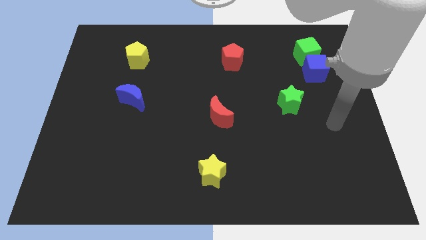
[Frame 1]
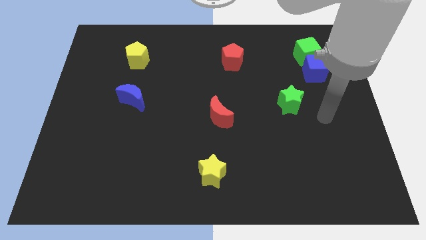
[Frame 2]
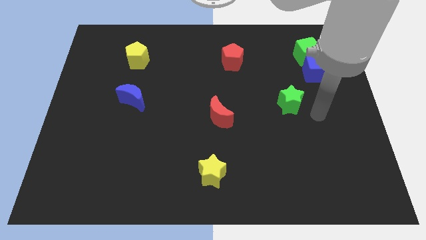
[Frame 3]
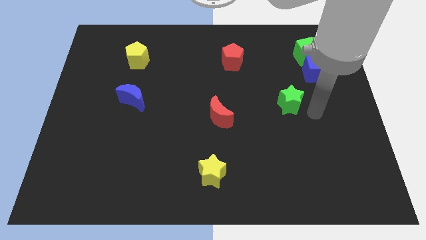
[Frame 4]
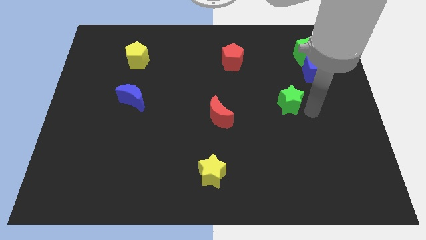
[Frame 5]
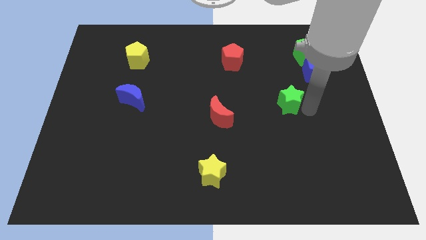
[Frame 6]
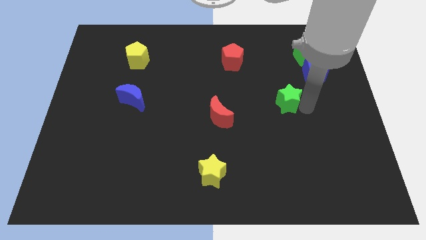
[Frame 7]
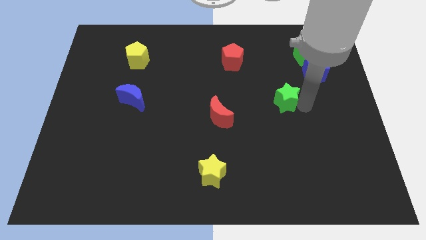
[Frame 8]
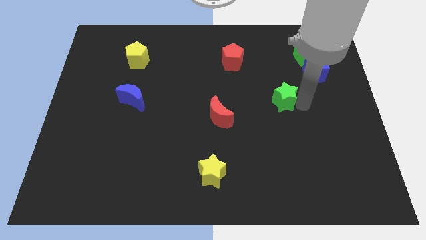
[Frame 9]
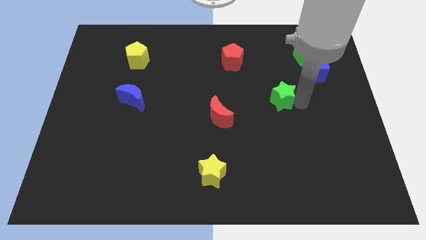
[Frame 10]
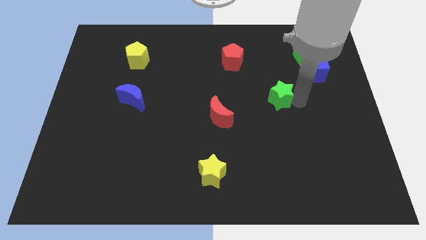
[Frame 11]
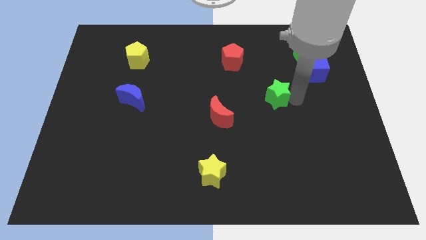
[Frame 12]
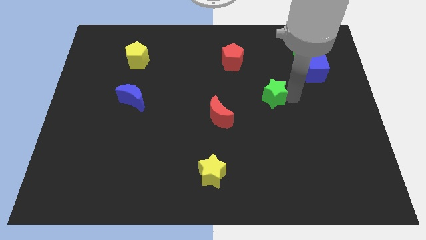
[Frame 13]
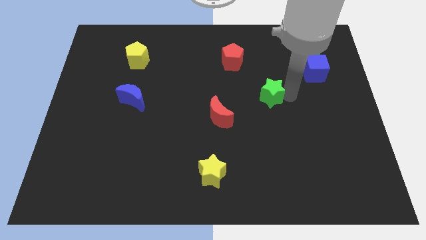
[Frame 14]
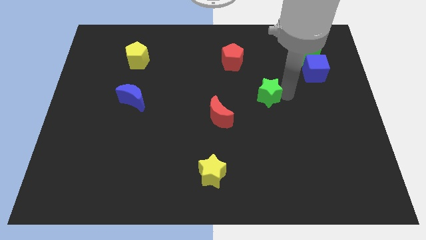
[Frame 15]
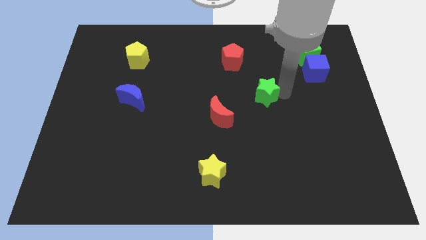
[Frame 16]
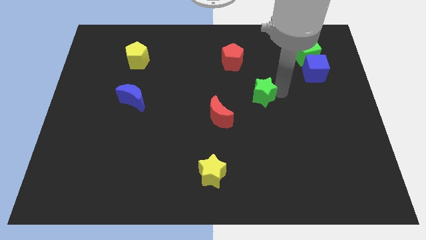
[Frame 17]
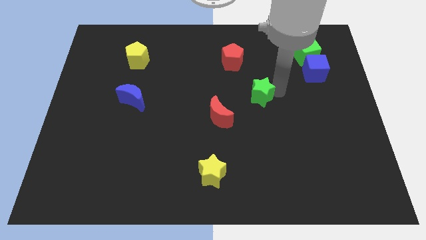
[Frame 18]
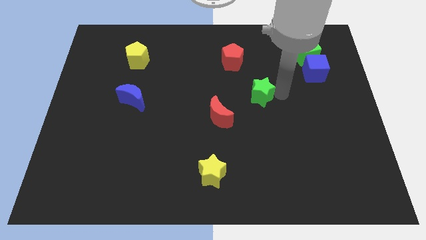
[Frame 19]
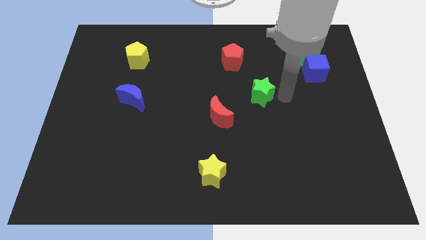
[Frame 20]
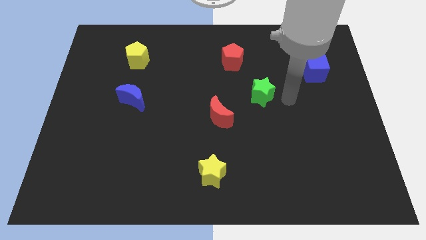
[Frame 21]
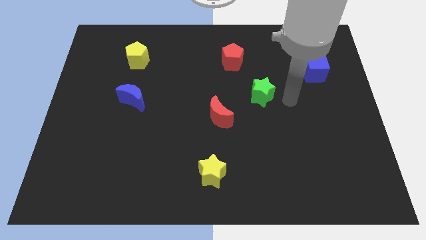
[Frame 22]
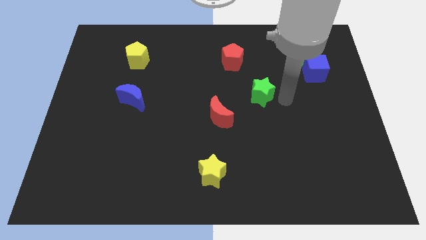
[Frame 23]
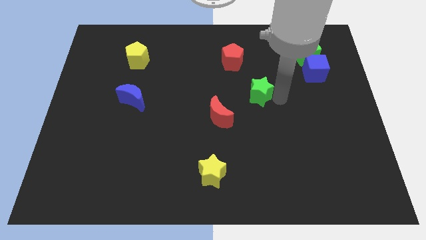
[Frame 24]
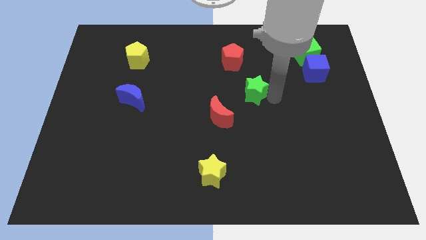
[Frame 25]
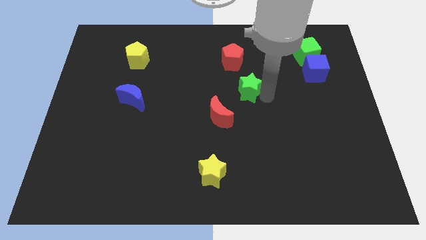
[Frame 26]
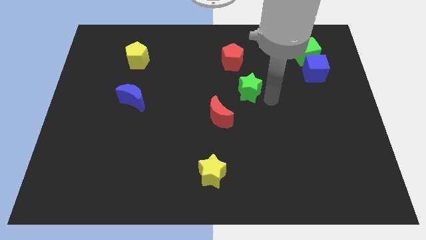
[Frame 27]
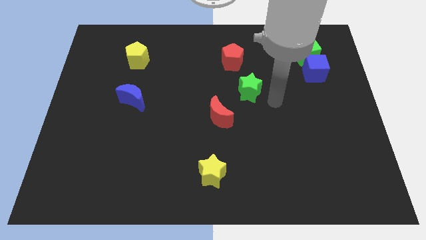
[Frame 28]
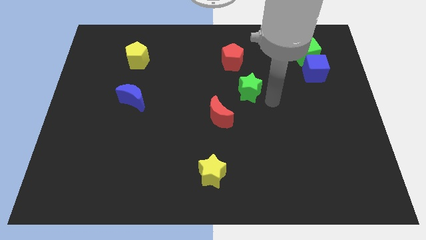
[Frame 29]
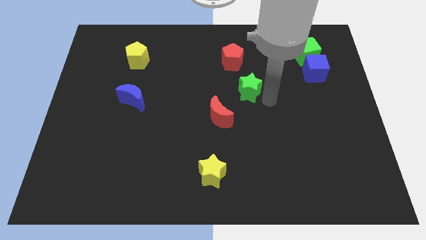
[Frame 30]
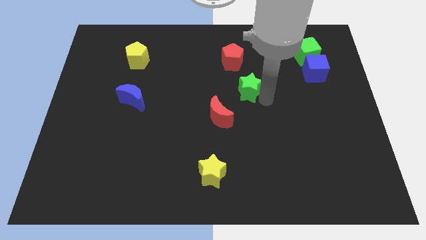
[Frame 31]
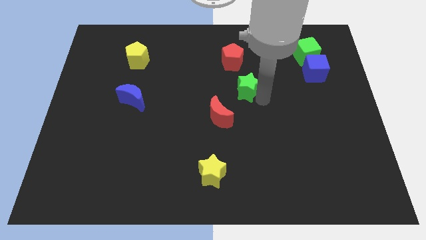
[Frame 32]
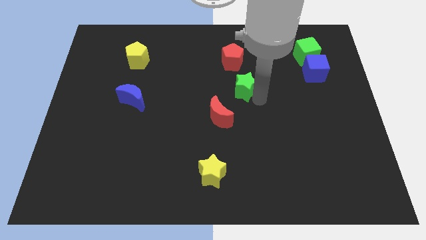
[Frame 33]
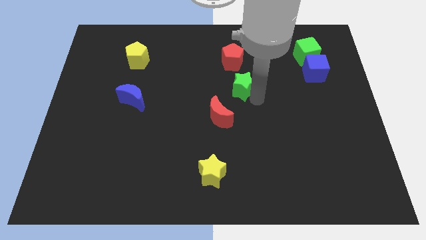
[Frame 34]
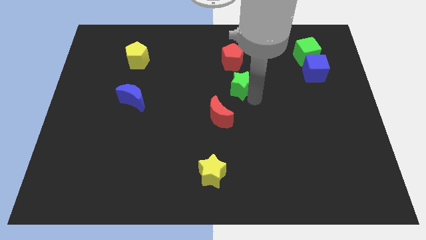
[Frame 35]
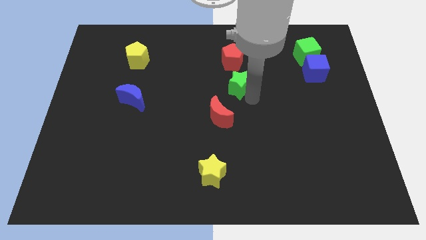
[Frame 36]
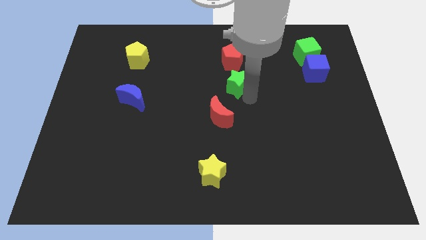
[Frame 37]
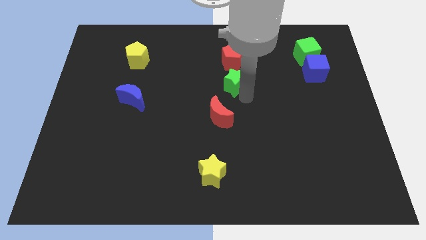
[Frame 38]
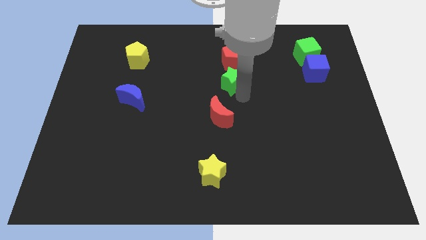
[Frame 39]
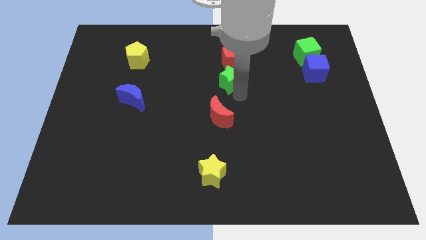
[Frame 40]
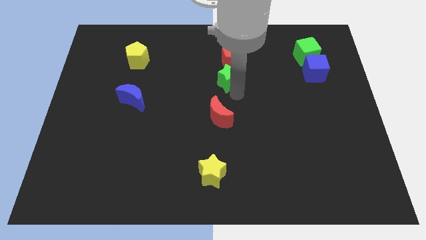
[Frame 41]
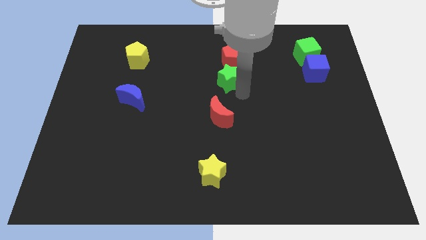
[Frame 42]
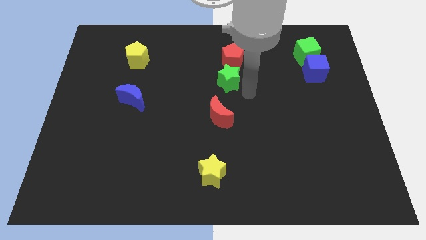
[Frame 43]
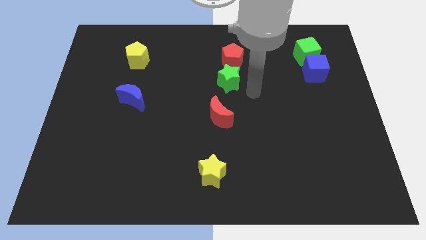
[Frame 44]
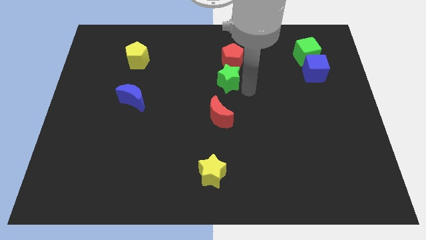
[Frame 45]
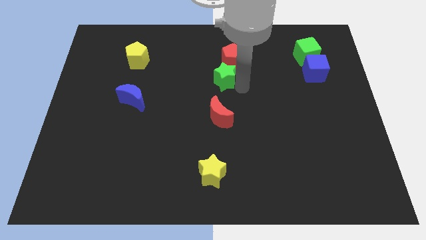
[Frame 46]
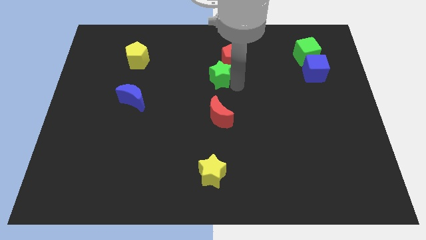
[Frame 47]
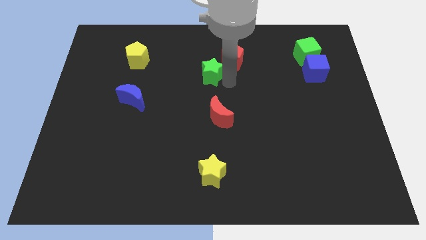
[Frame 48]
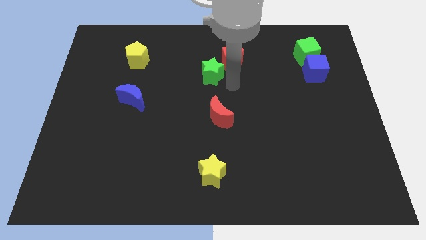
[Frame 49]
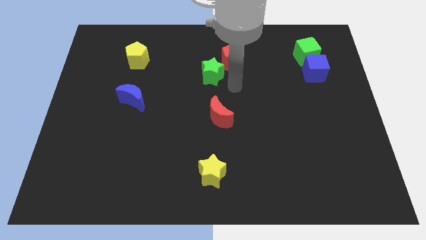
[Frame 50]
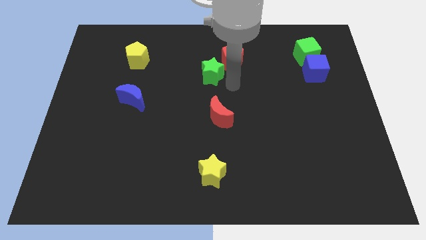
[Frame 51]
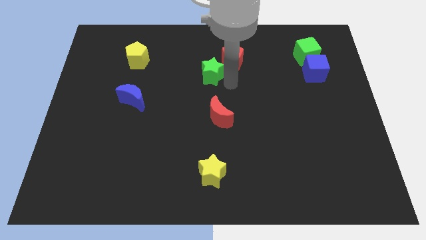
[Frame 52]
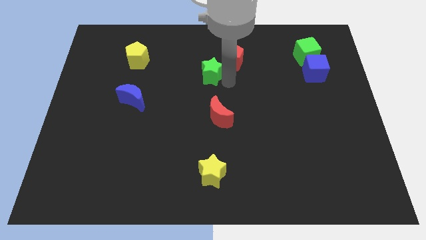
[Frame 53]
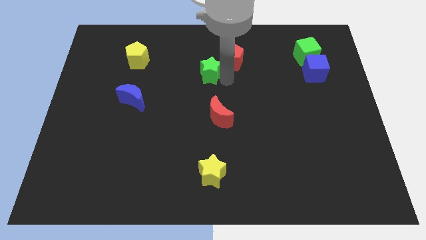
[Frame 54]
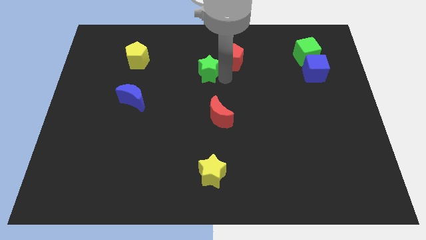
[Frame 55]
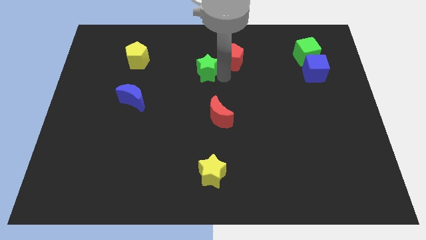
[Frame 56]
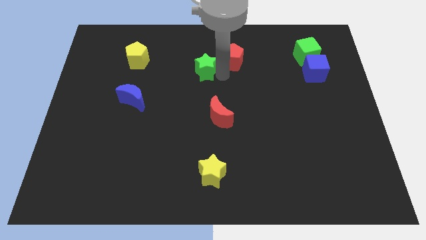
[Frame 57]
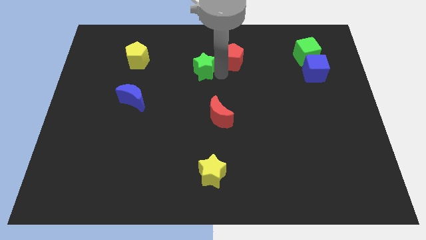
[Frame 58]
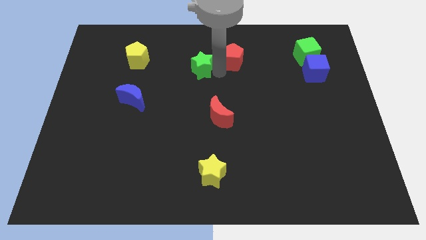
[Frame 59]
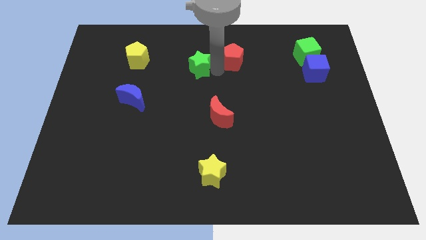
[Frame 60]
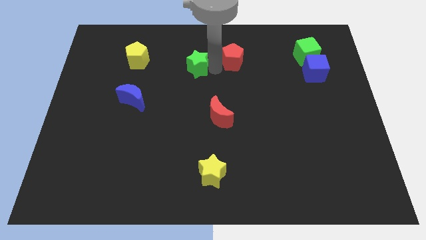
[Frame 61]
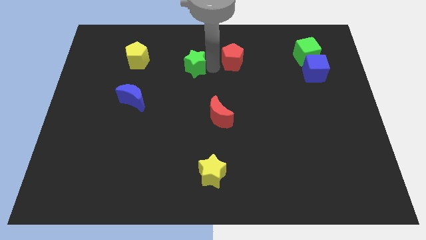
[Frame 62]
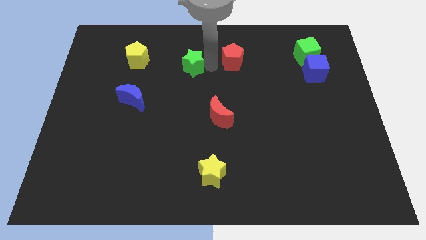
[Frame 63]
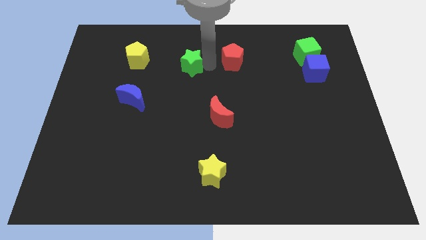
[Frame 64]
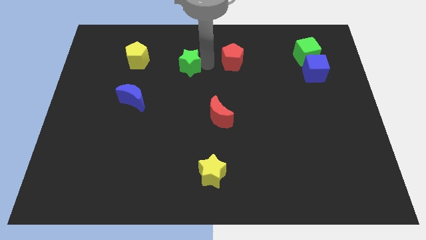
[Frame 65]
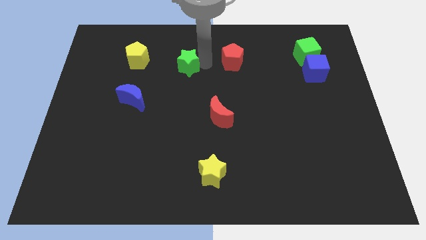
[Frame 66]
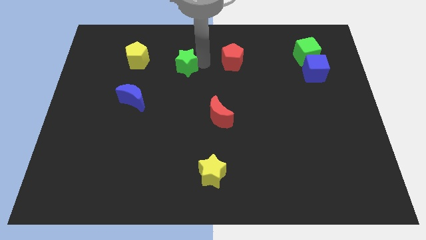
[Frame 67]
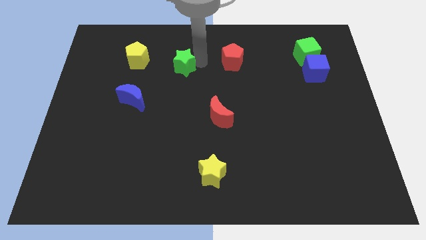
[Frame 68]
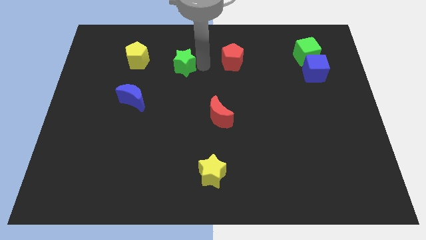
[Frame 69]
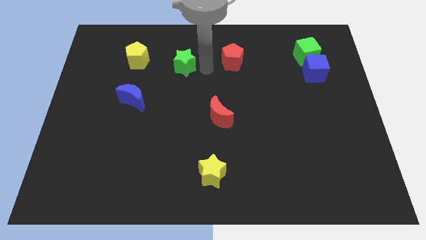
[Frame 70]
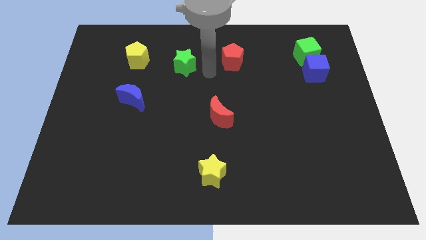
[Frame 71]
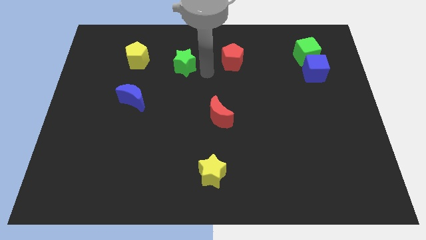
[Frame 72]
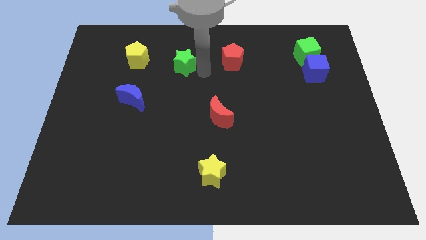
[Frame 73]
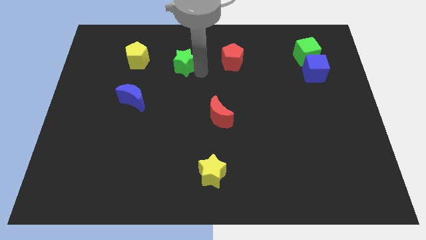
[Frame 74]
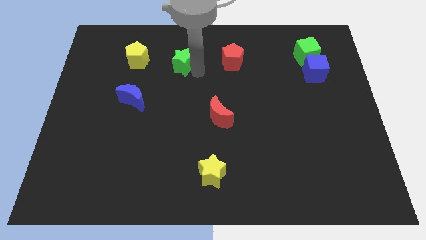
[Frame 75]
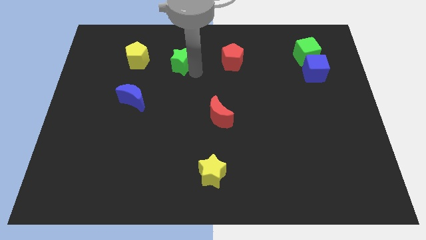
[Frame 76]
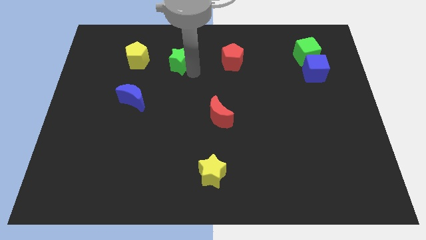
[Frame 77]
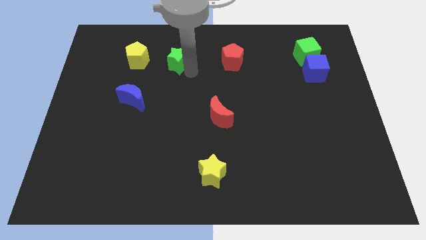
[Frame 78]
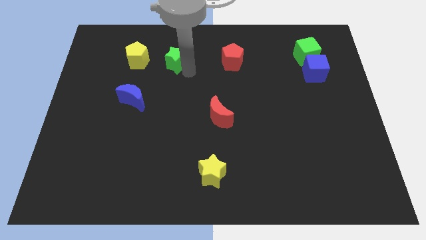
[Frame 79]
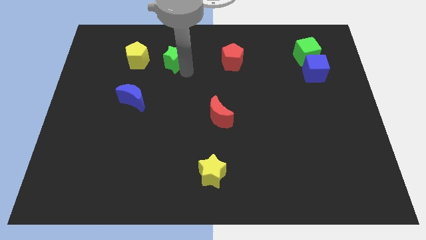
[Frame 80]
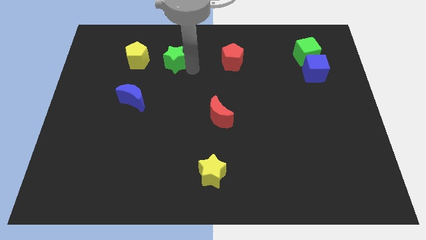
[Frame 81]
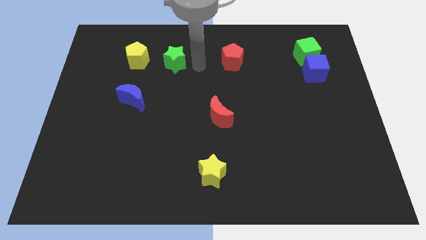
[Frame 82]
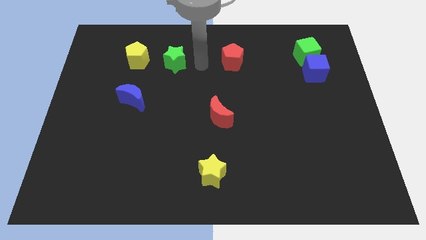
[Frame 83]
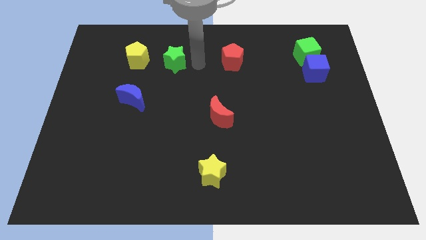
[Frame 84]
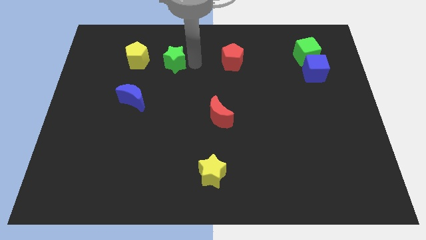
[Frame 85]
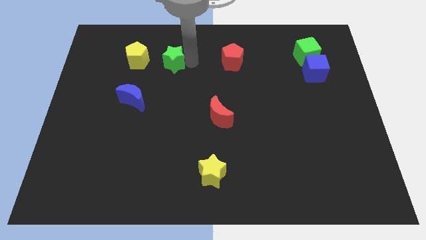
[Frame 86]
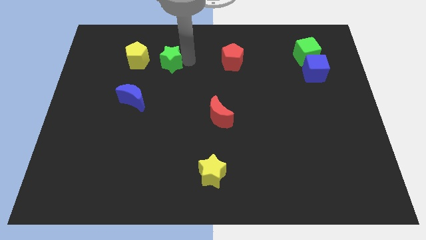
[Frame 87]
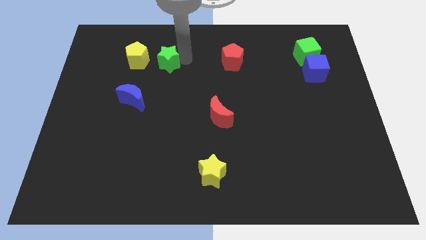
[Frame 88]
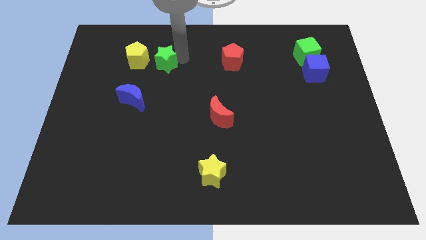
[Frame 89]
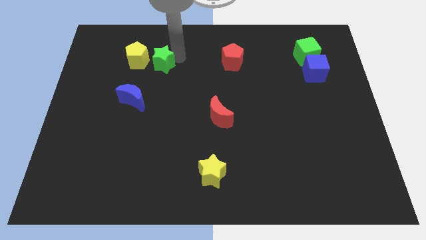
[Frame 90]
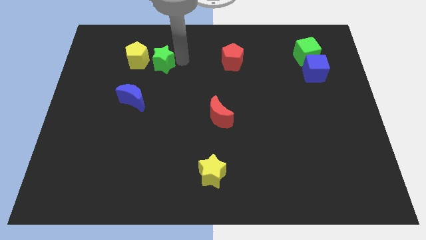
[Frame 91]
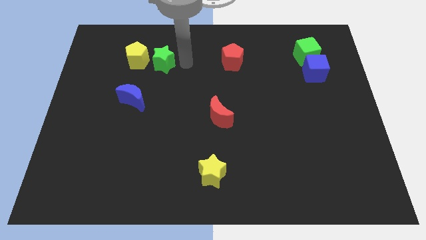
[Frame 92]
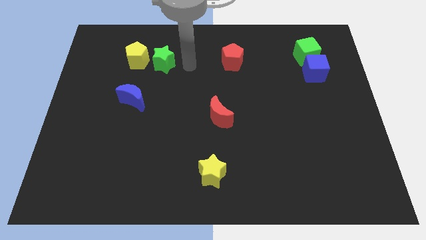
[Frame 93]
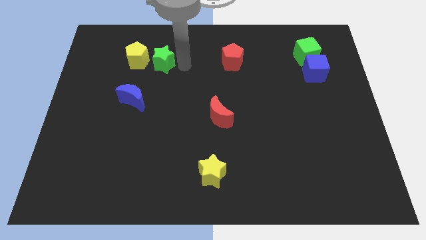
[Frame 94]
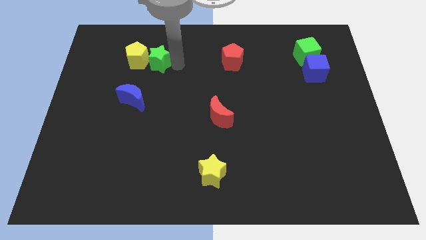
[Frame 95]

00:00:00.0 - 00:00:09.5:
put the green star towards the yellow pentagon
